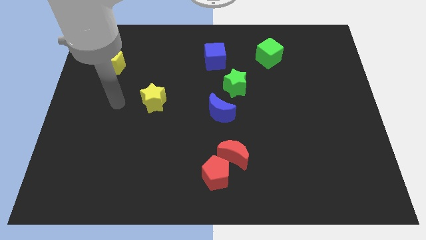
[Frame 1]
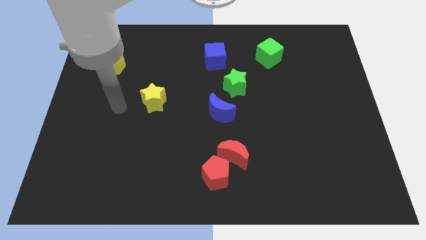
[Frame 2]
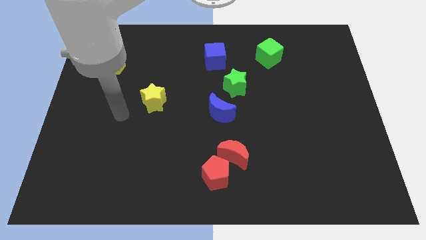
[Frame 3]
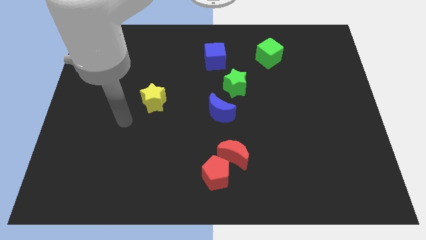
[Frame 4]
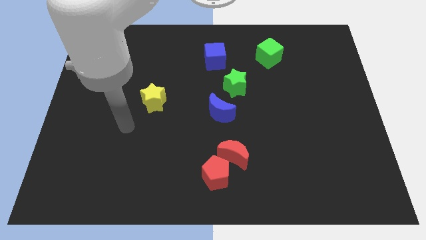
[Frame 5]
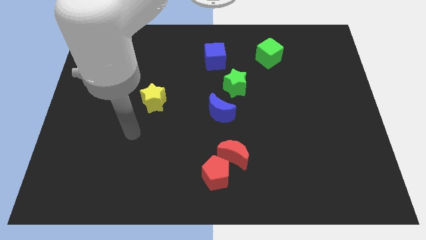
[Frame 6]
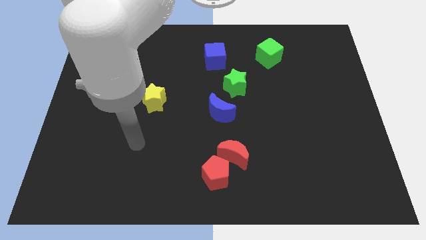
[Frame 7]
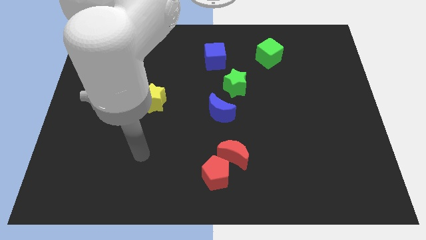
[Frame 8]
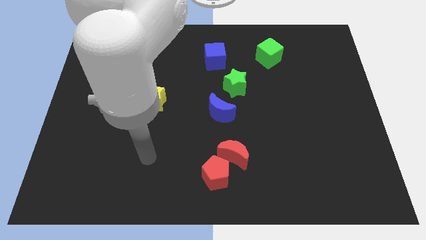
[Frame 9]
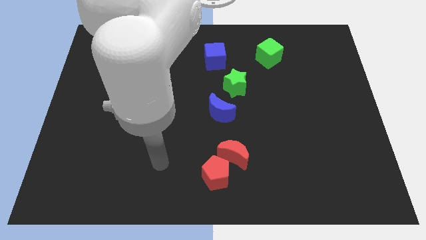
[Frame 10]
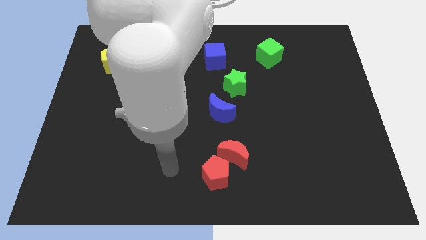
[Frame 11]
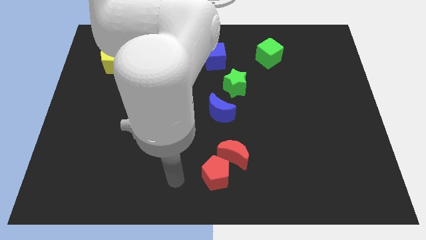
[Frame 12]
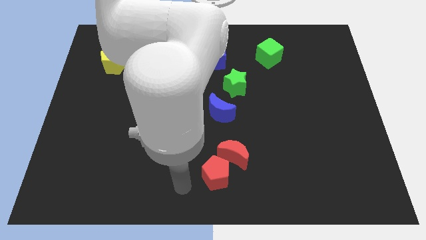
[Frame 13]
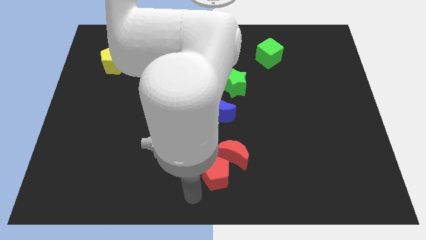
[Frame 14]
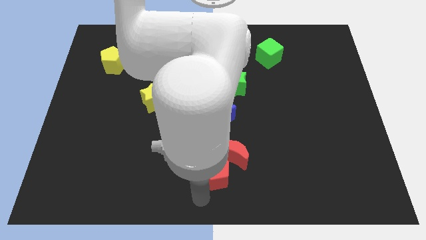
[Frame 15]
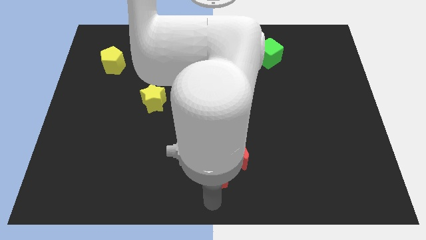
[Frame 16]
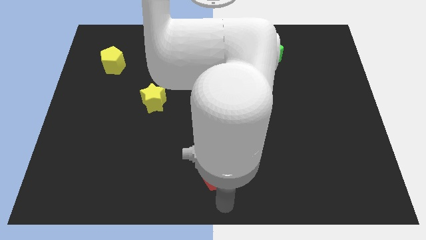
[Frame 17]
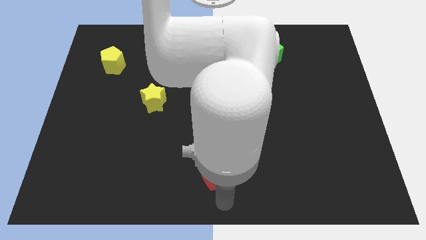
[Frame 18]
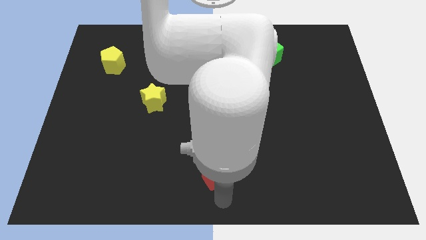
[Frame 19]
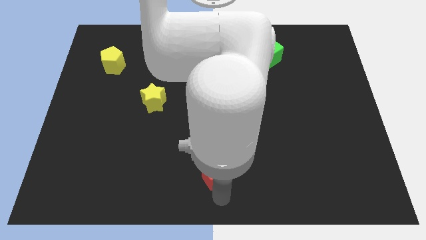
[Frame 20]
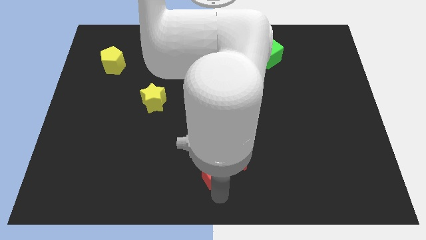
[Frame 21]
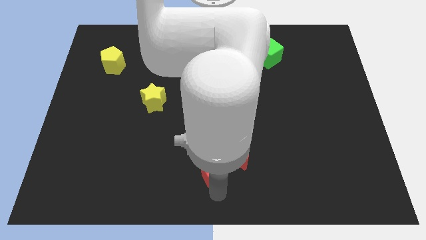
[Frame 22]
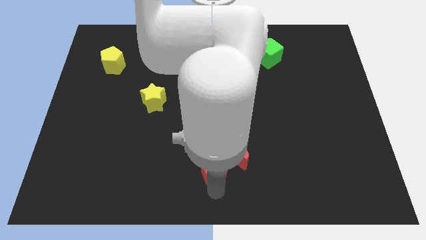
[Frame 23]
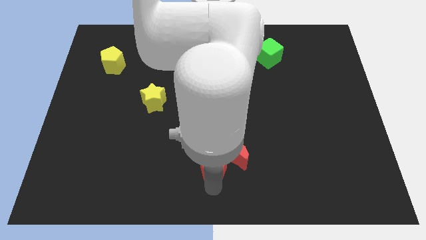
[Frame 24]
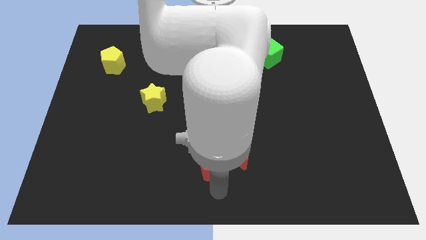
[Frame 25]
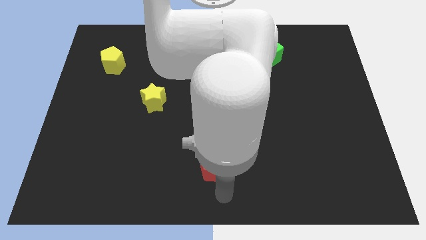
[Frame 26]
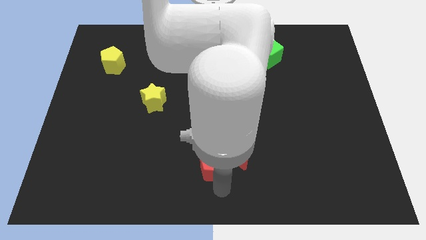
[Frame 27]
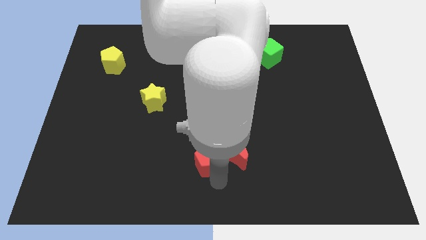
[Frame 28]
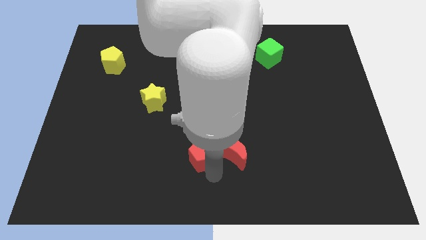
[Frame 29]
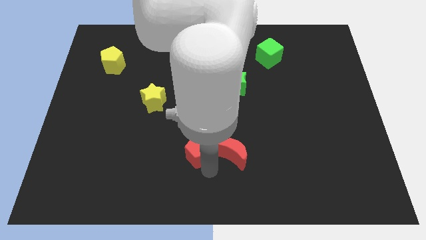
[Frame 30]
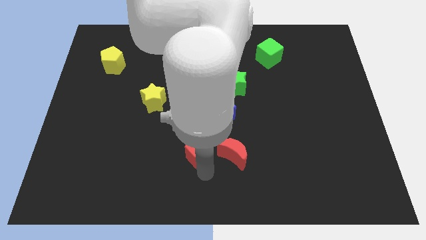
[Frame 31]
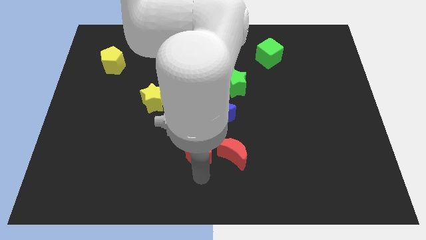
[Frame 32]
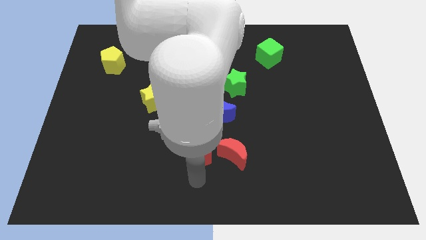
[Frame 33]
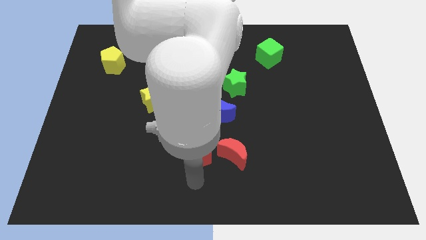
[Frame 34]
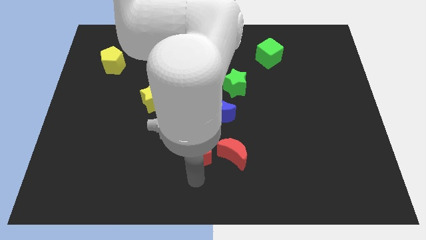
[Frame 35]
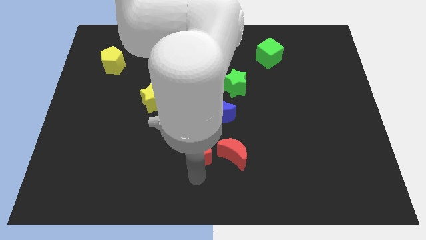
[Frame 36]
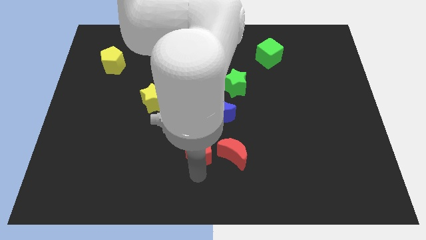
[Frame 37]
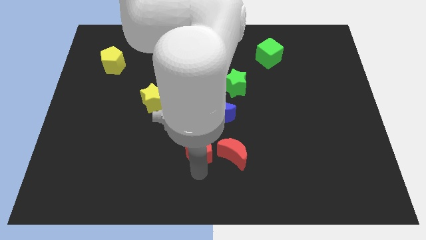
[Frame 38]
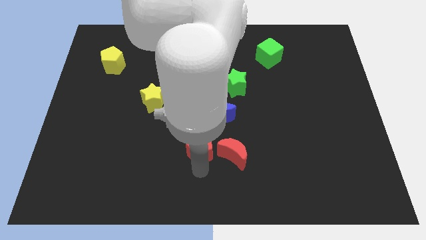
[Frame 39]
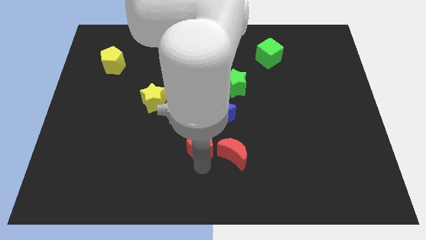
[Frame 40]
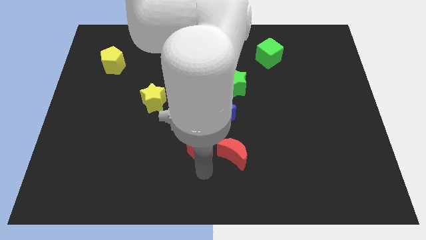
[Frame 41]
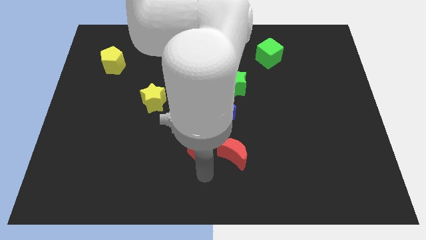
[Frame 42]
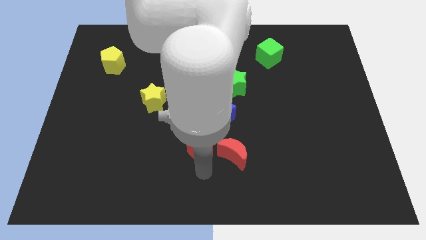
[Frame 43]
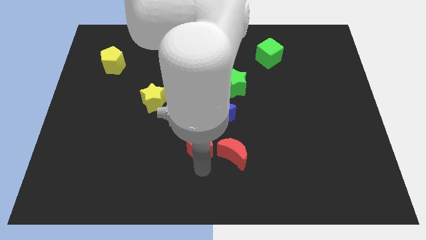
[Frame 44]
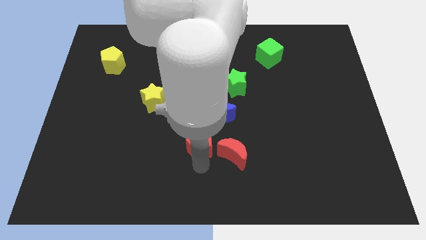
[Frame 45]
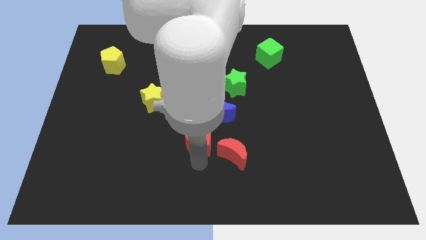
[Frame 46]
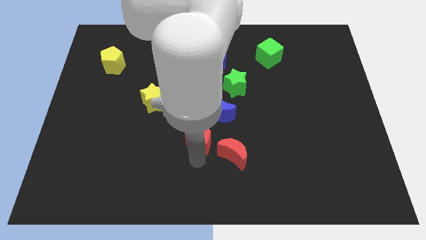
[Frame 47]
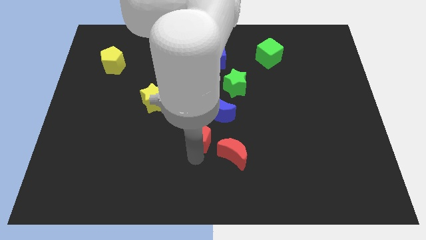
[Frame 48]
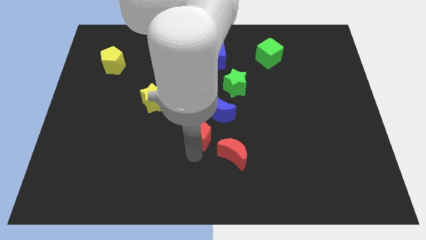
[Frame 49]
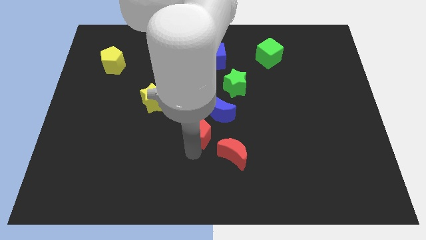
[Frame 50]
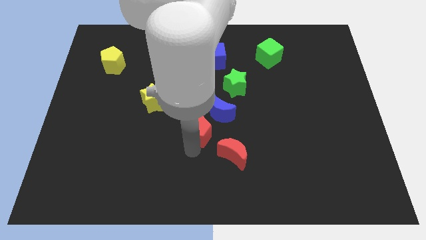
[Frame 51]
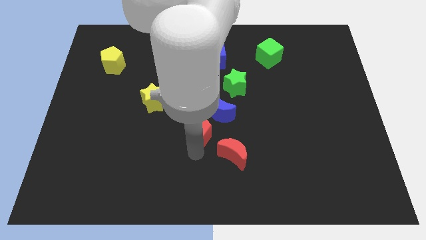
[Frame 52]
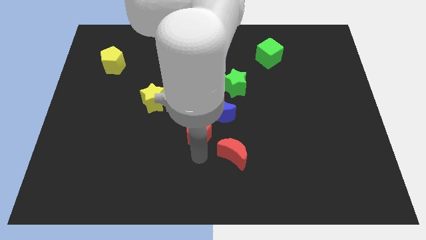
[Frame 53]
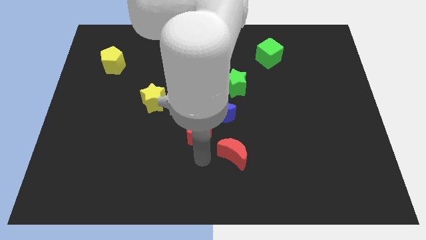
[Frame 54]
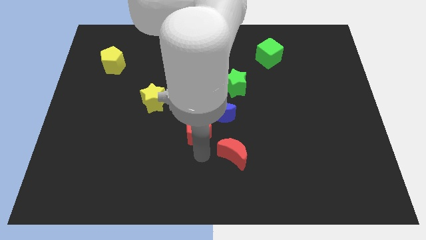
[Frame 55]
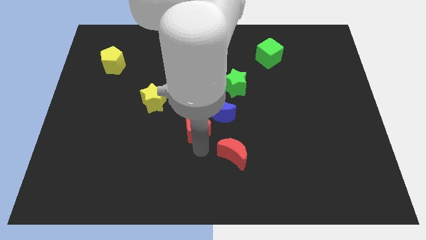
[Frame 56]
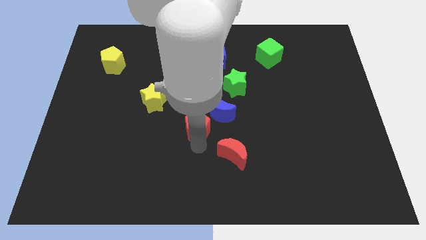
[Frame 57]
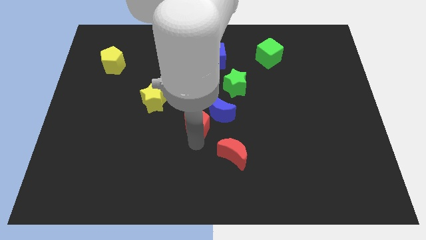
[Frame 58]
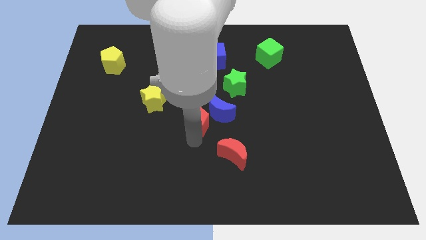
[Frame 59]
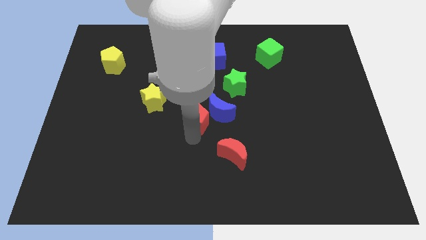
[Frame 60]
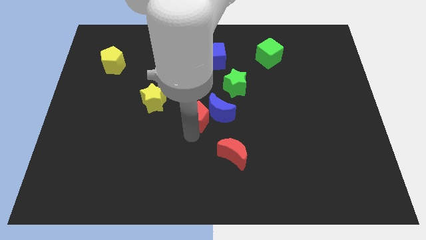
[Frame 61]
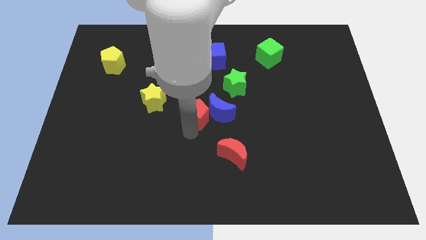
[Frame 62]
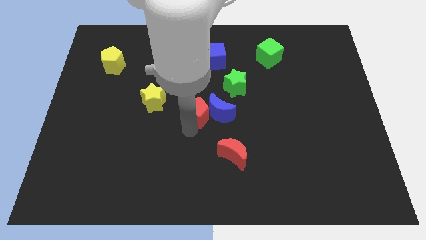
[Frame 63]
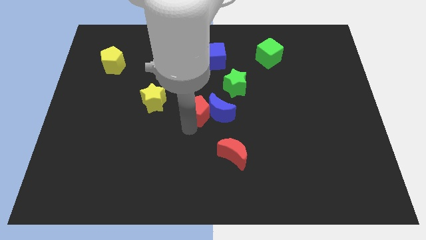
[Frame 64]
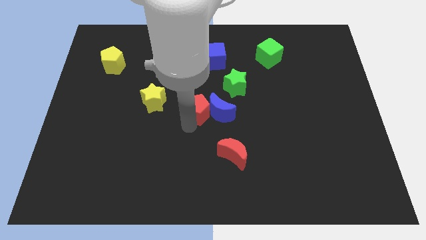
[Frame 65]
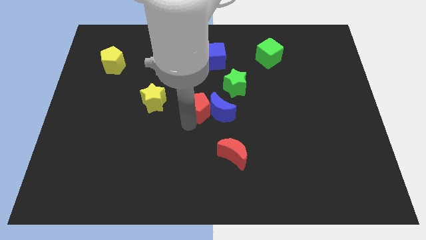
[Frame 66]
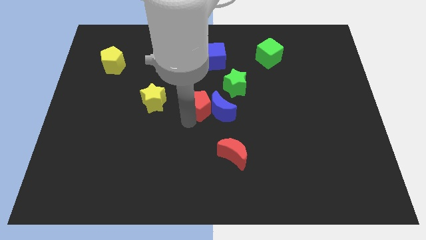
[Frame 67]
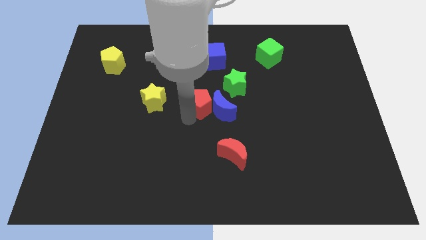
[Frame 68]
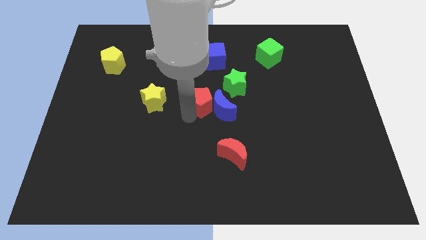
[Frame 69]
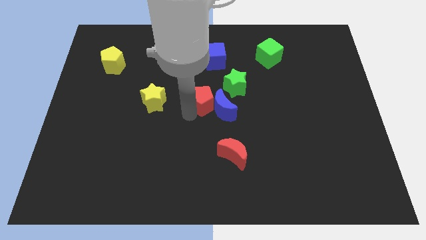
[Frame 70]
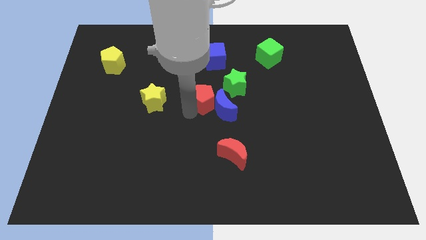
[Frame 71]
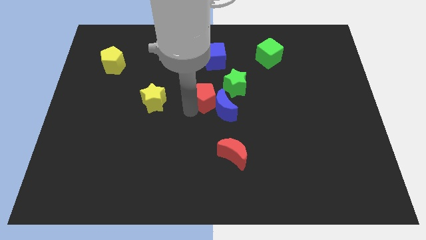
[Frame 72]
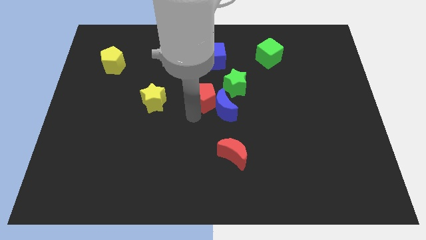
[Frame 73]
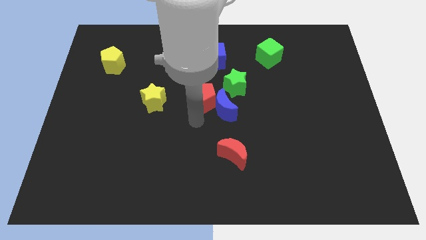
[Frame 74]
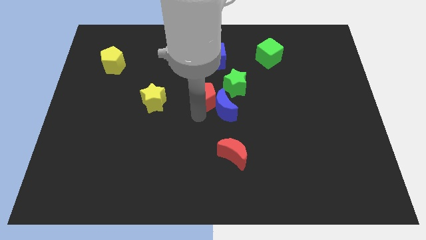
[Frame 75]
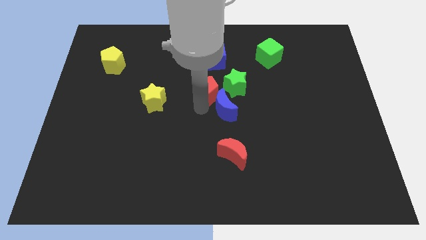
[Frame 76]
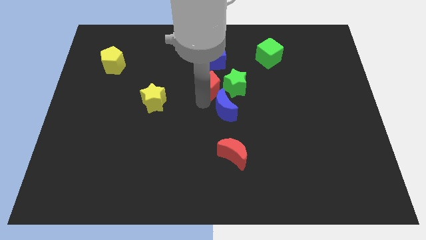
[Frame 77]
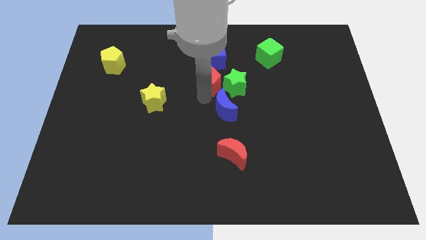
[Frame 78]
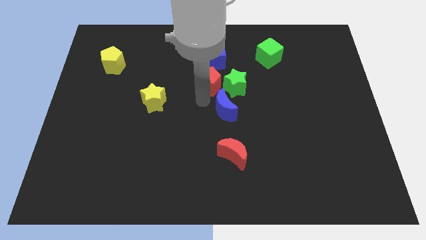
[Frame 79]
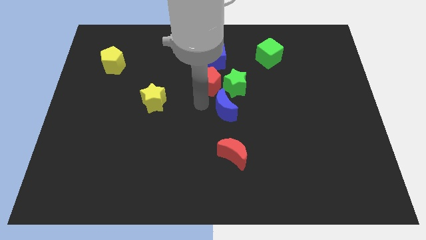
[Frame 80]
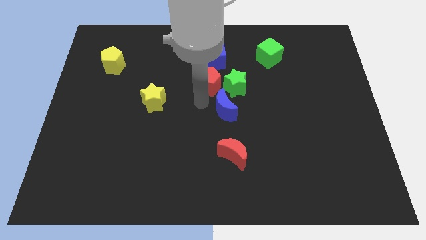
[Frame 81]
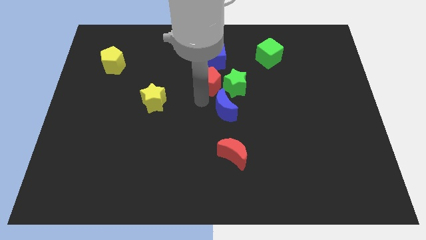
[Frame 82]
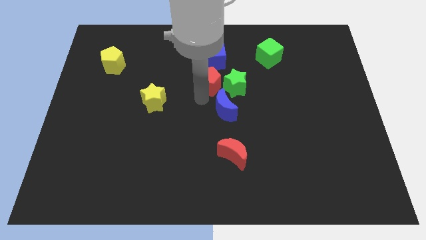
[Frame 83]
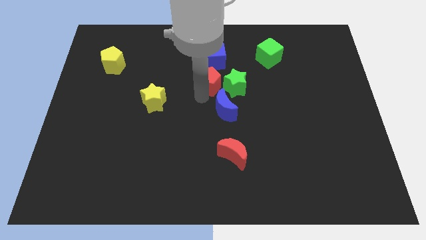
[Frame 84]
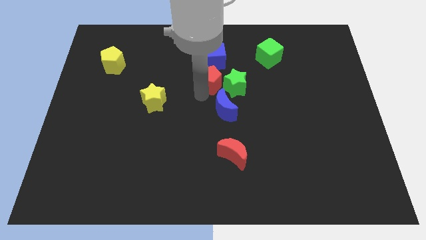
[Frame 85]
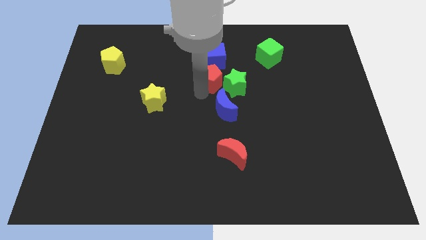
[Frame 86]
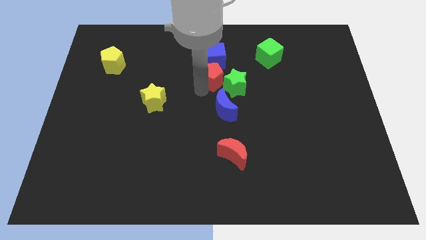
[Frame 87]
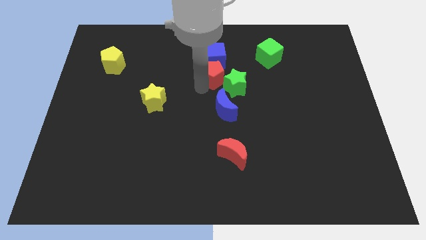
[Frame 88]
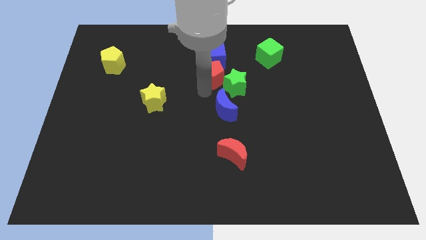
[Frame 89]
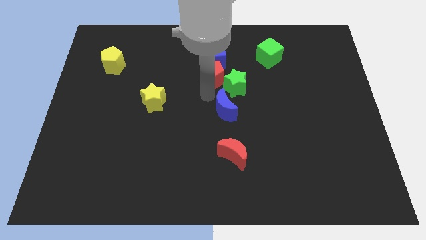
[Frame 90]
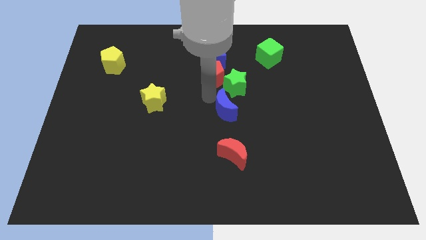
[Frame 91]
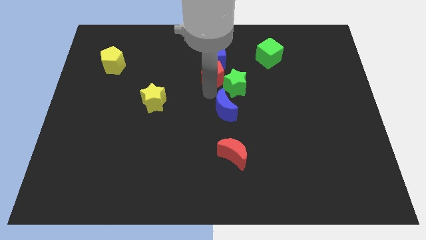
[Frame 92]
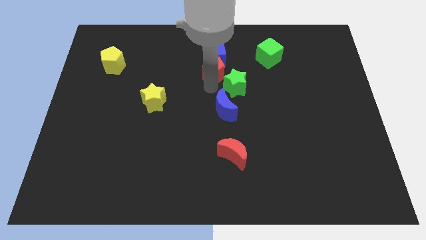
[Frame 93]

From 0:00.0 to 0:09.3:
slide the red pentagon close to the blue cube
